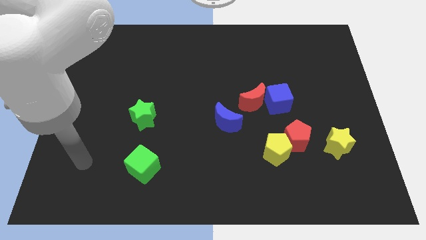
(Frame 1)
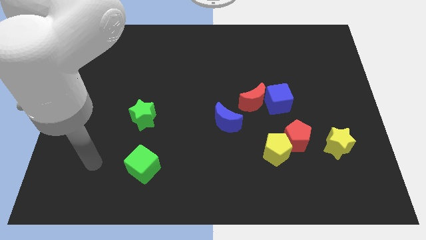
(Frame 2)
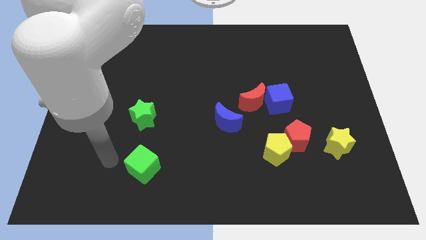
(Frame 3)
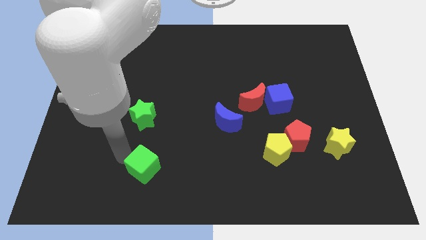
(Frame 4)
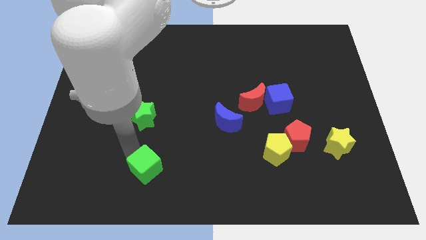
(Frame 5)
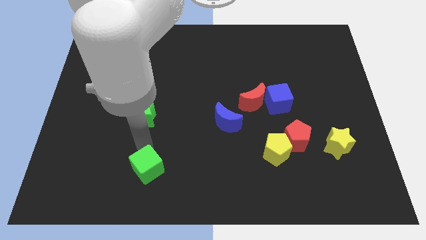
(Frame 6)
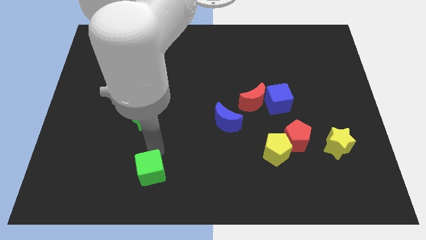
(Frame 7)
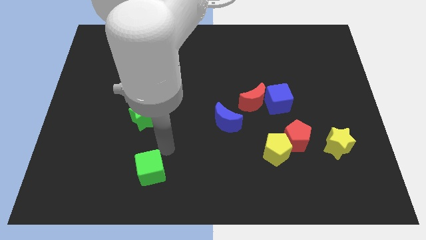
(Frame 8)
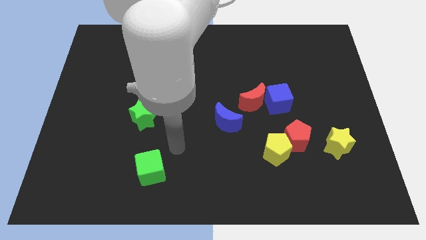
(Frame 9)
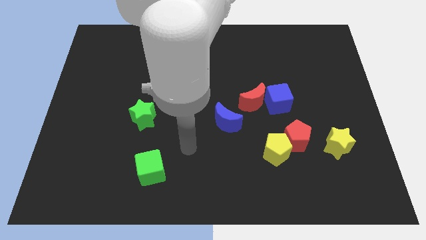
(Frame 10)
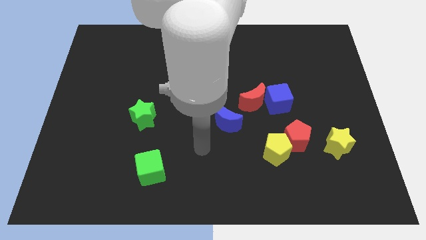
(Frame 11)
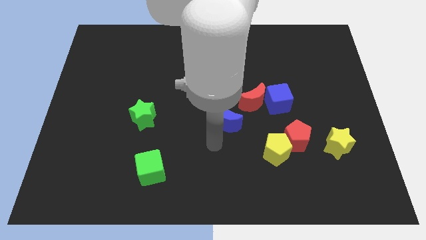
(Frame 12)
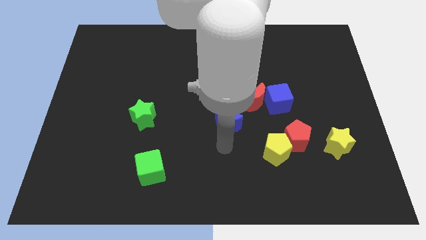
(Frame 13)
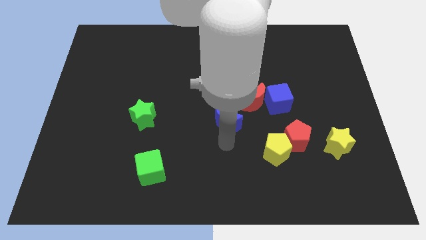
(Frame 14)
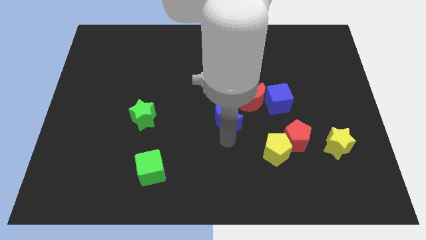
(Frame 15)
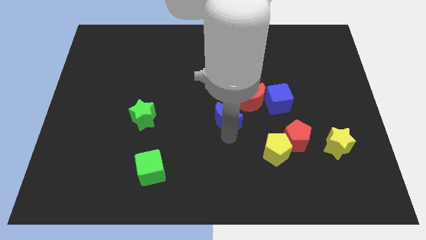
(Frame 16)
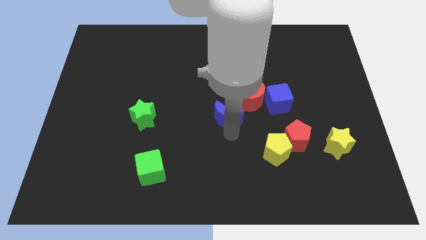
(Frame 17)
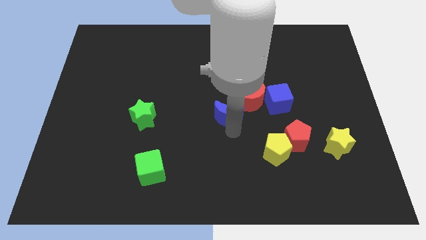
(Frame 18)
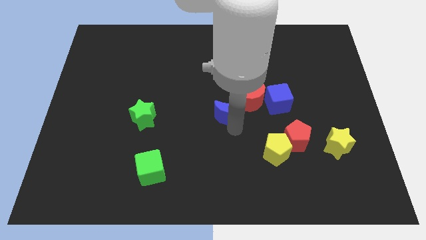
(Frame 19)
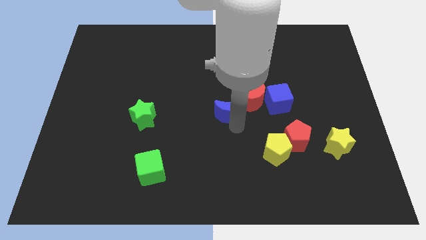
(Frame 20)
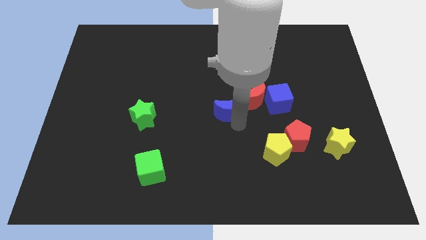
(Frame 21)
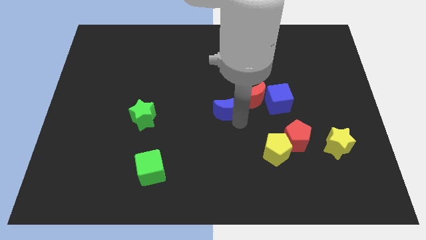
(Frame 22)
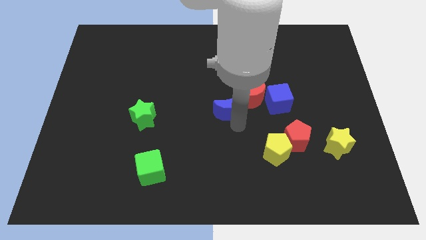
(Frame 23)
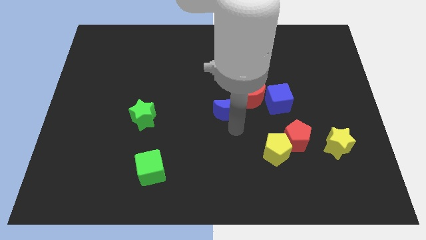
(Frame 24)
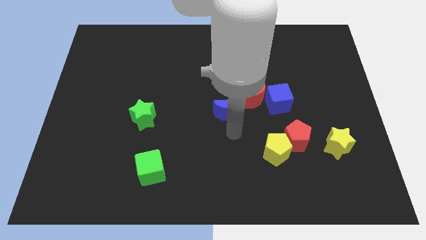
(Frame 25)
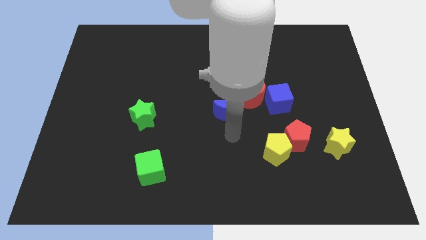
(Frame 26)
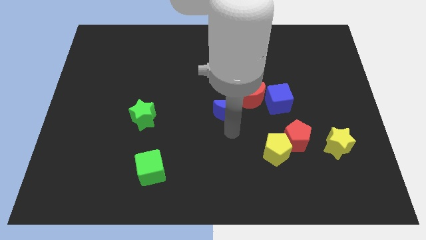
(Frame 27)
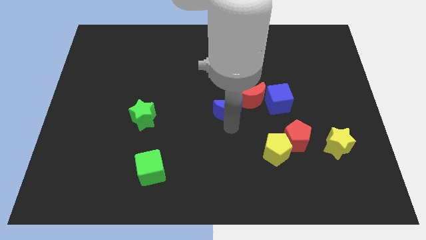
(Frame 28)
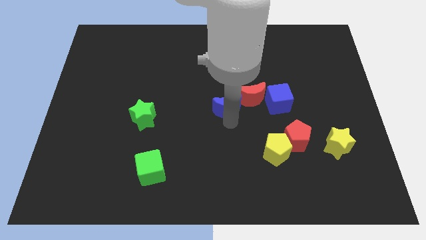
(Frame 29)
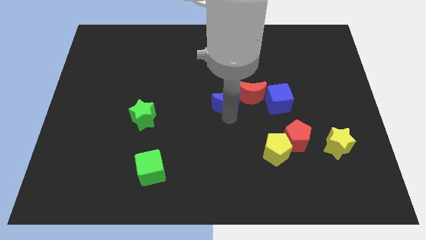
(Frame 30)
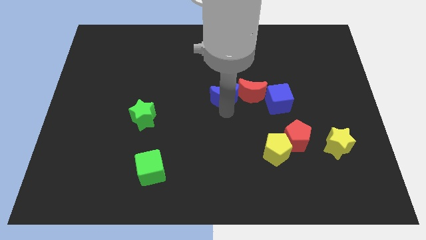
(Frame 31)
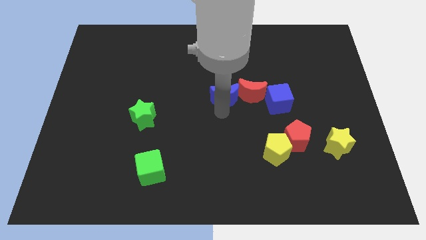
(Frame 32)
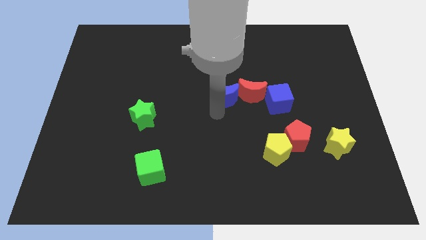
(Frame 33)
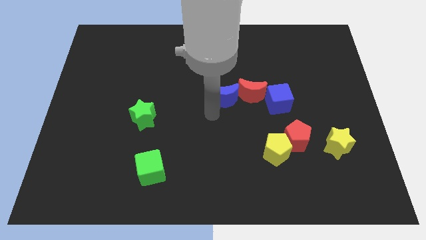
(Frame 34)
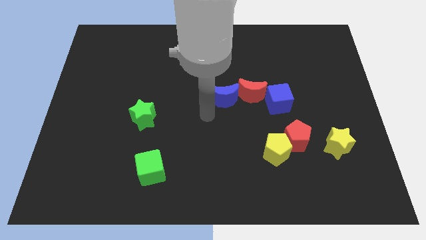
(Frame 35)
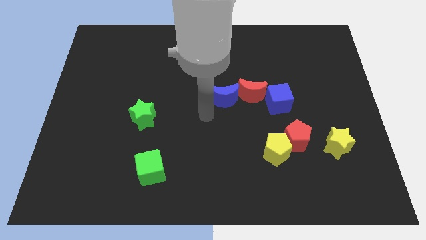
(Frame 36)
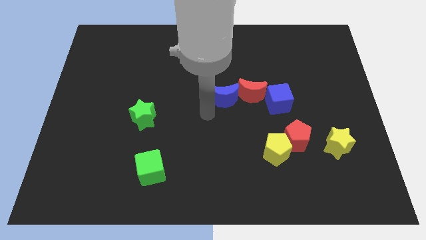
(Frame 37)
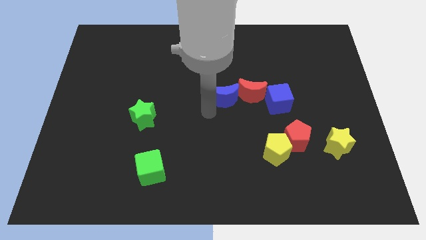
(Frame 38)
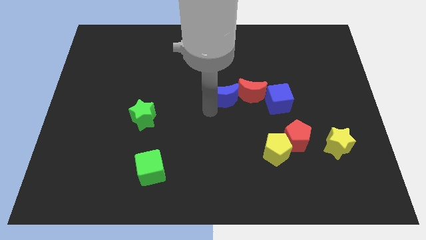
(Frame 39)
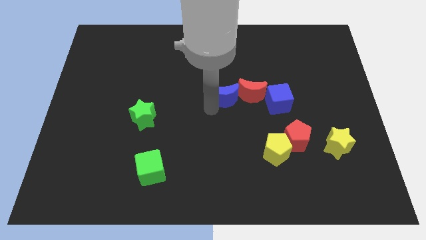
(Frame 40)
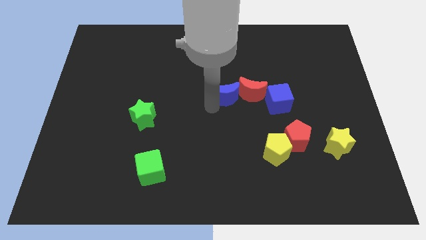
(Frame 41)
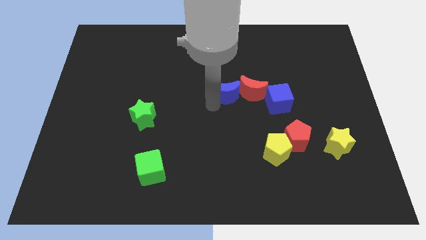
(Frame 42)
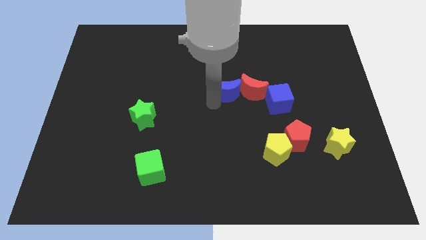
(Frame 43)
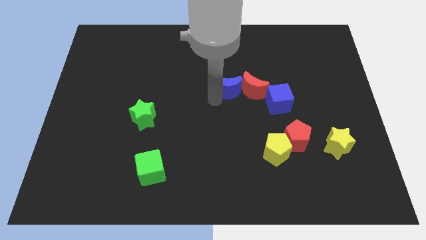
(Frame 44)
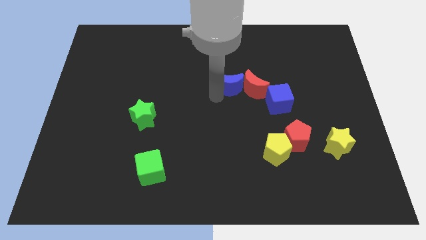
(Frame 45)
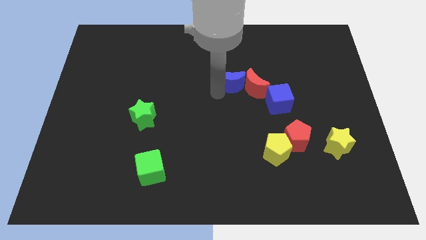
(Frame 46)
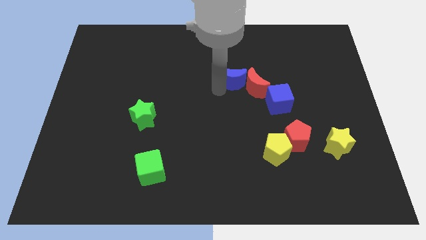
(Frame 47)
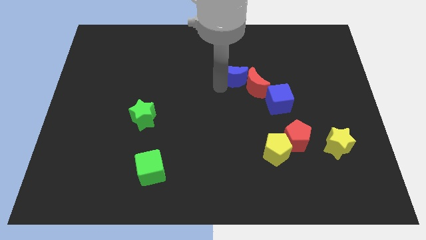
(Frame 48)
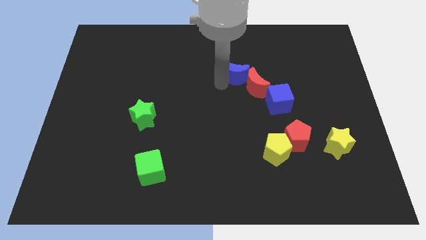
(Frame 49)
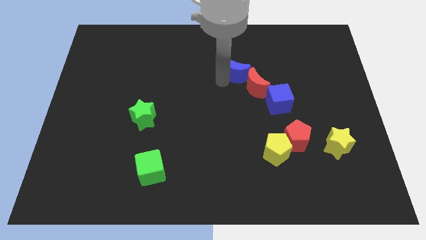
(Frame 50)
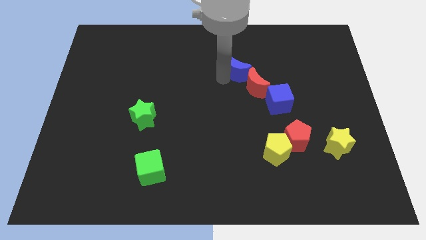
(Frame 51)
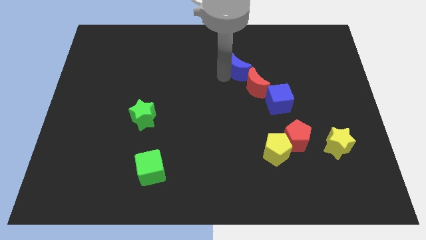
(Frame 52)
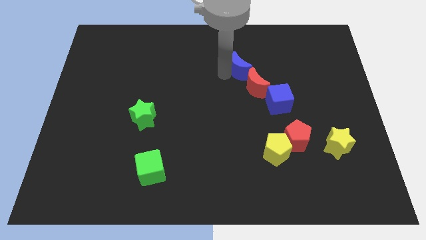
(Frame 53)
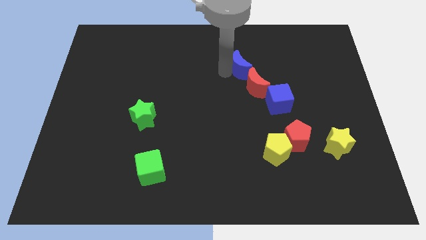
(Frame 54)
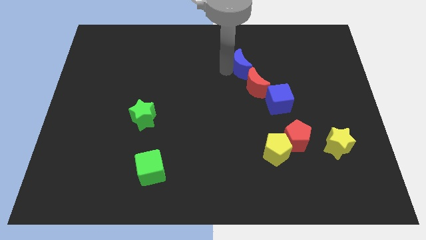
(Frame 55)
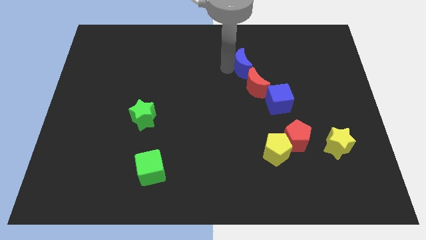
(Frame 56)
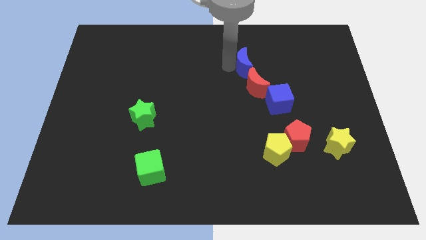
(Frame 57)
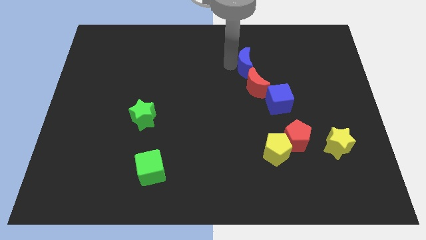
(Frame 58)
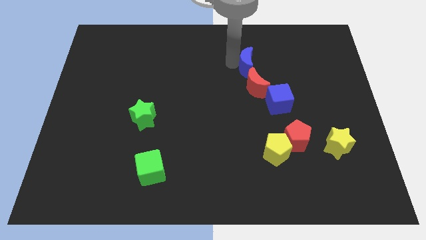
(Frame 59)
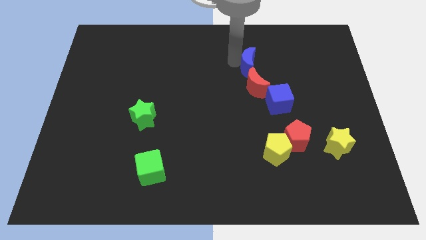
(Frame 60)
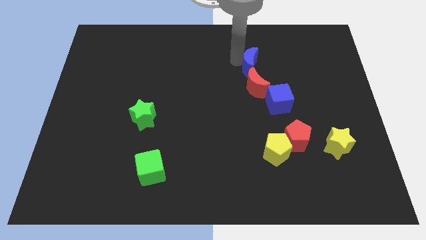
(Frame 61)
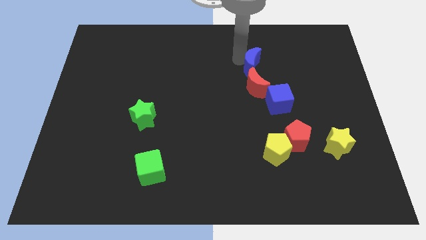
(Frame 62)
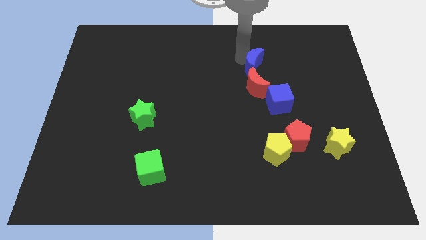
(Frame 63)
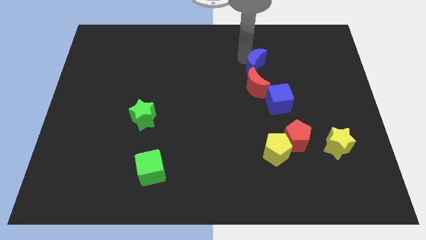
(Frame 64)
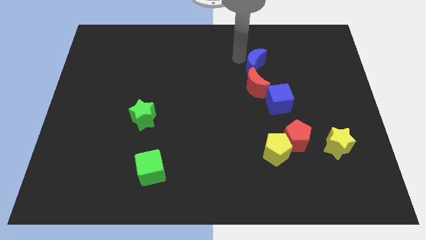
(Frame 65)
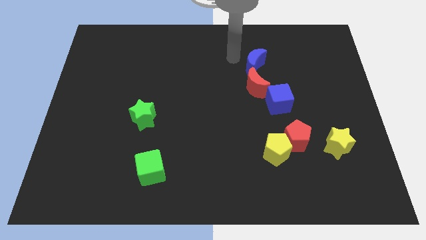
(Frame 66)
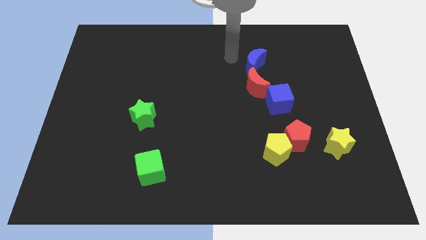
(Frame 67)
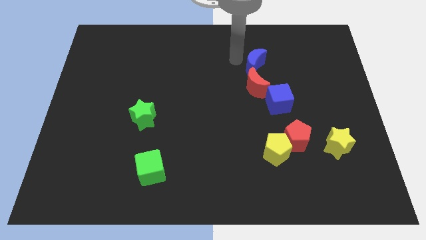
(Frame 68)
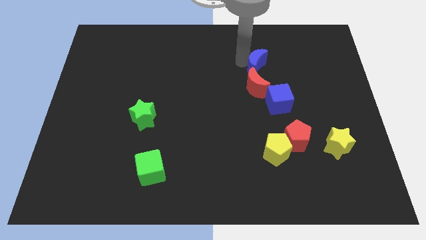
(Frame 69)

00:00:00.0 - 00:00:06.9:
put the blue moon to the top right side of the red moon
